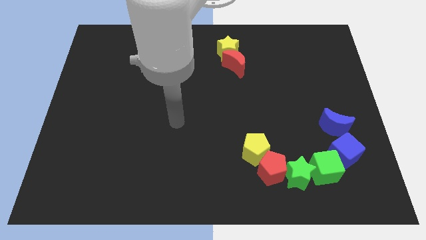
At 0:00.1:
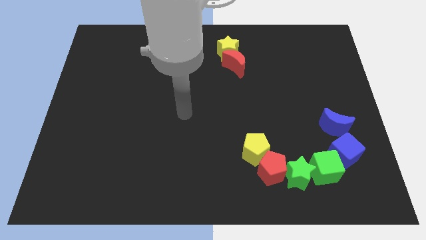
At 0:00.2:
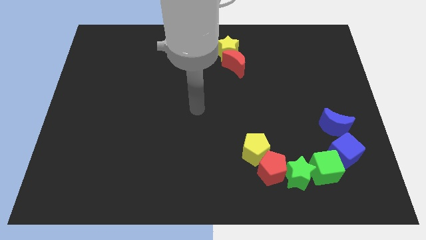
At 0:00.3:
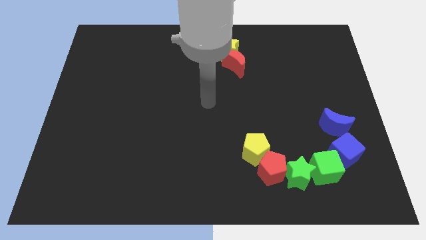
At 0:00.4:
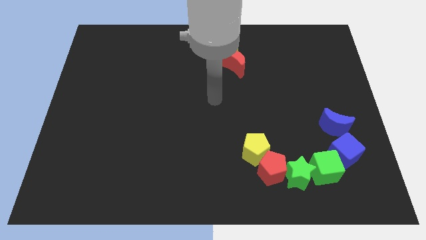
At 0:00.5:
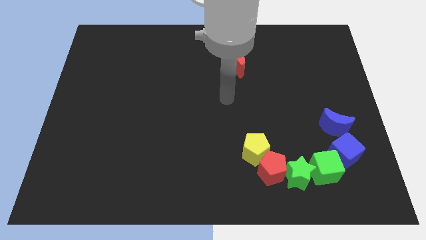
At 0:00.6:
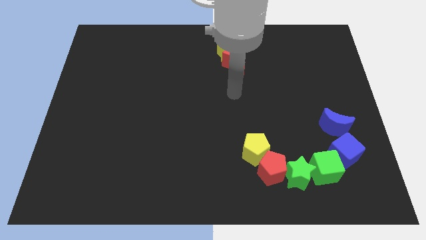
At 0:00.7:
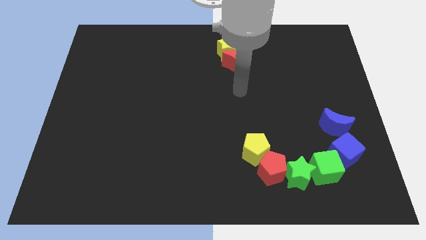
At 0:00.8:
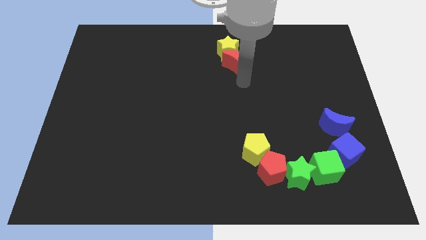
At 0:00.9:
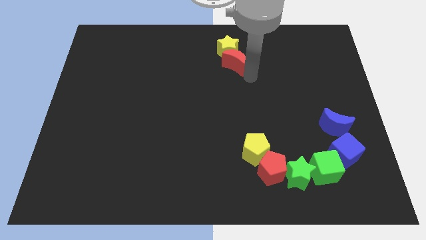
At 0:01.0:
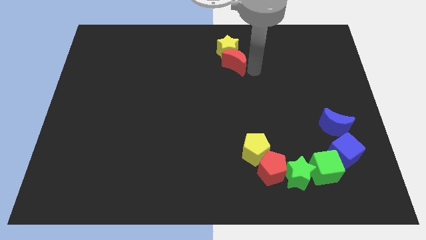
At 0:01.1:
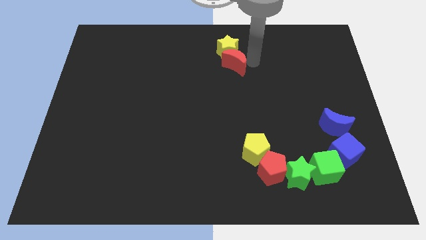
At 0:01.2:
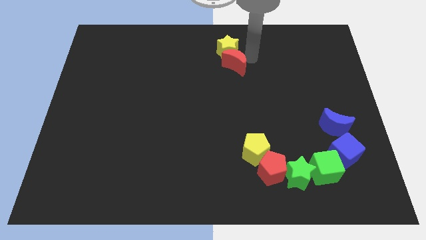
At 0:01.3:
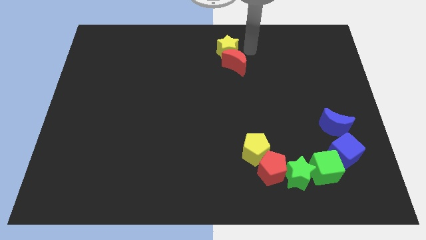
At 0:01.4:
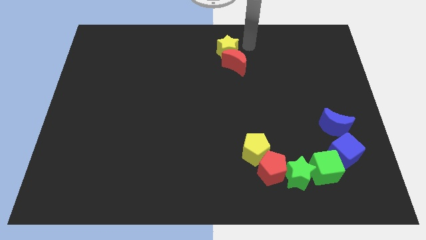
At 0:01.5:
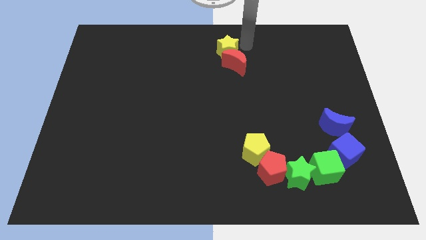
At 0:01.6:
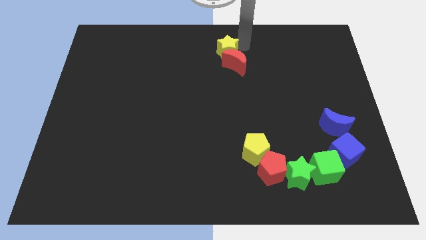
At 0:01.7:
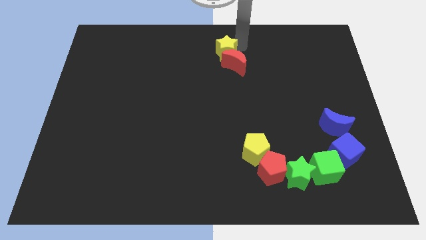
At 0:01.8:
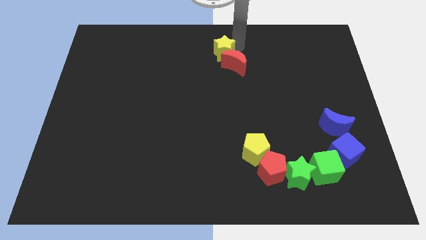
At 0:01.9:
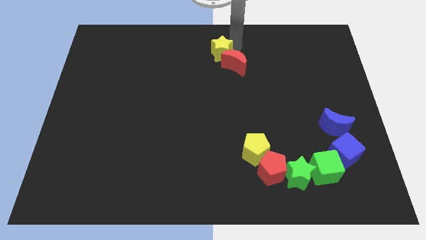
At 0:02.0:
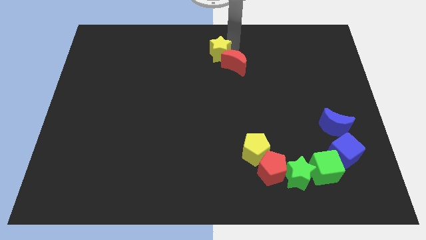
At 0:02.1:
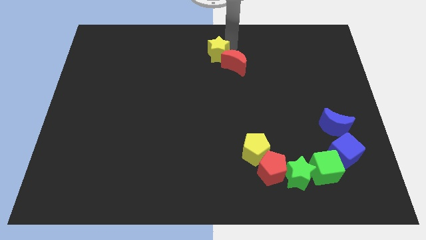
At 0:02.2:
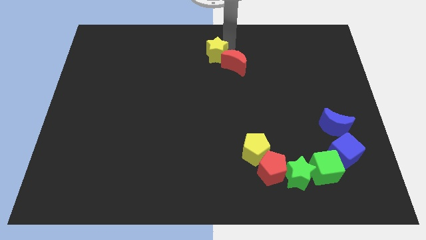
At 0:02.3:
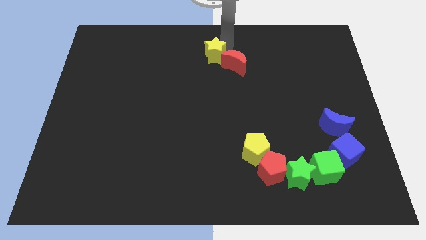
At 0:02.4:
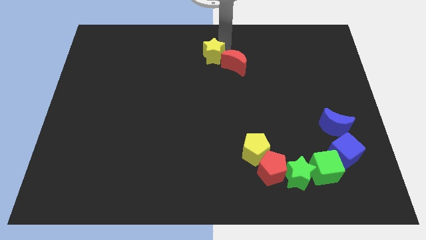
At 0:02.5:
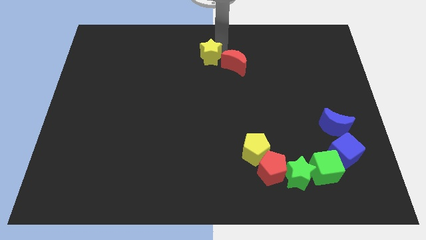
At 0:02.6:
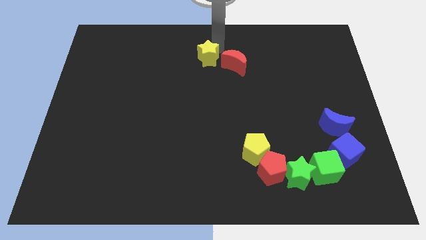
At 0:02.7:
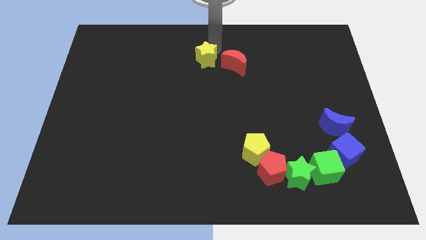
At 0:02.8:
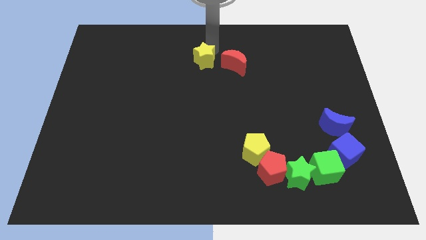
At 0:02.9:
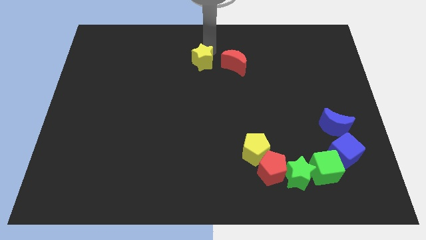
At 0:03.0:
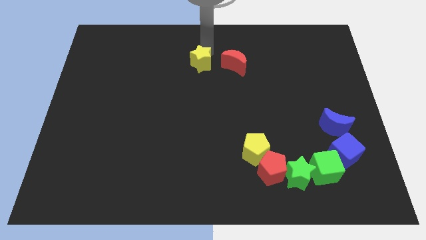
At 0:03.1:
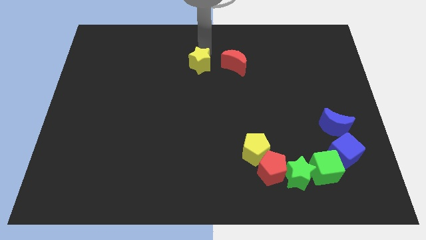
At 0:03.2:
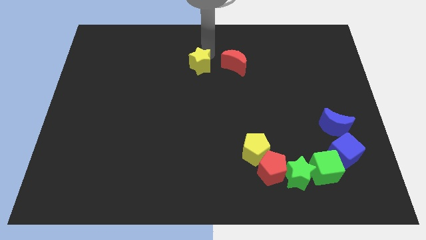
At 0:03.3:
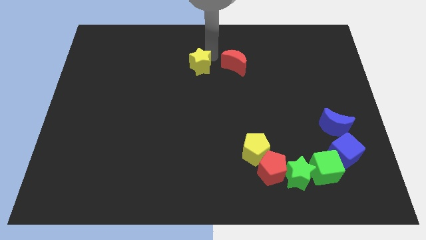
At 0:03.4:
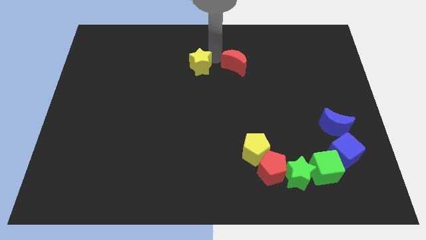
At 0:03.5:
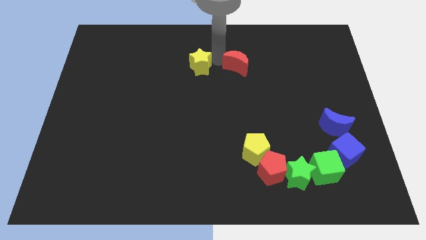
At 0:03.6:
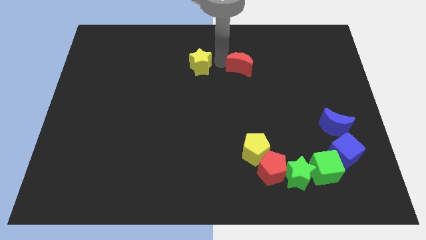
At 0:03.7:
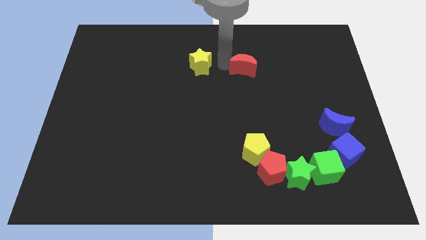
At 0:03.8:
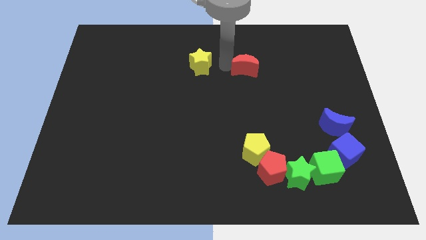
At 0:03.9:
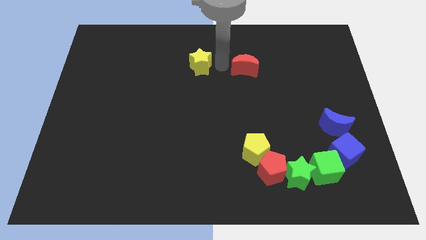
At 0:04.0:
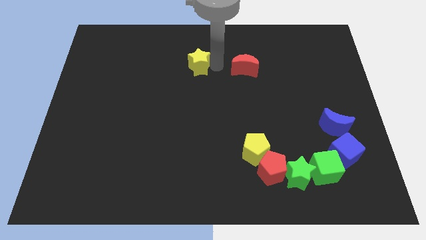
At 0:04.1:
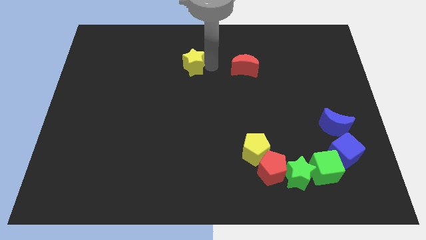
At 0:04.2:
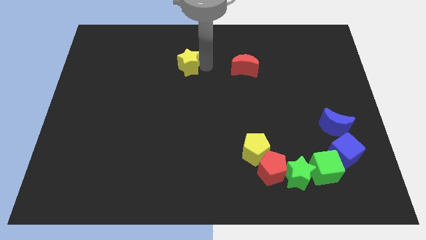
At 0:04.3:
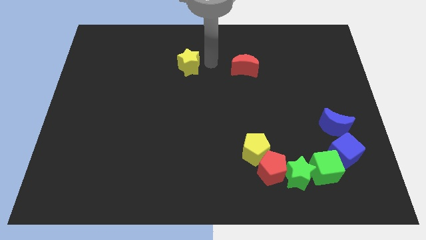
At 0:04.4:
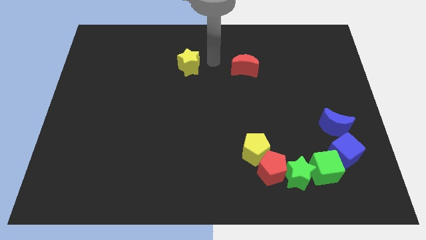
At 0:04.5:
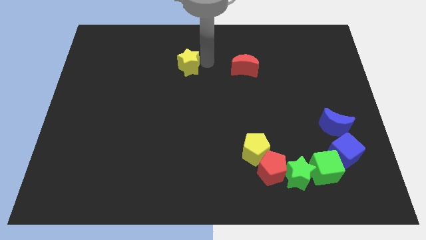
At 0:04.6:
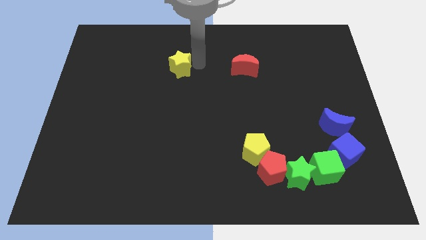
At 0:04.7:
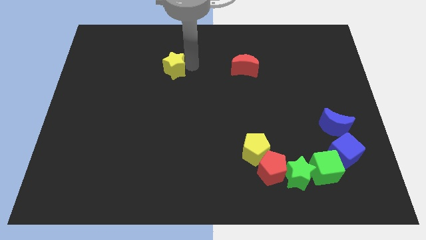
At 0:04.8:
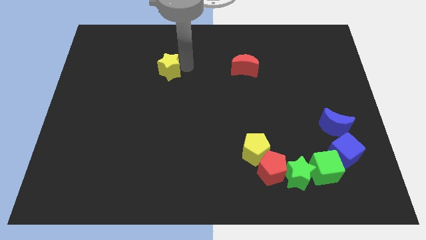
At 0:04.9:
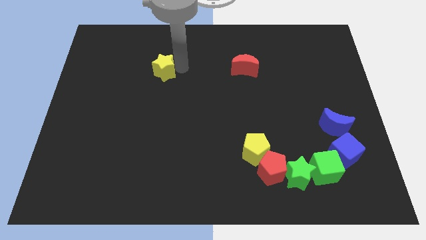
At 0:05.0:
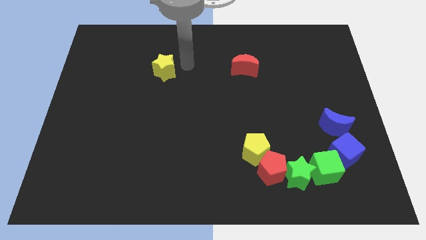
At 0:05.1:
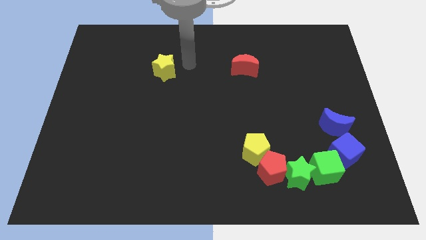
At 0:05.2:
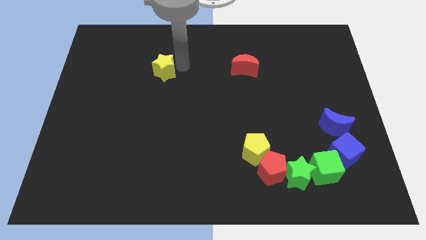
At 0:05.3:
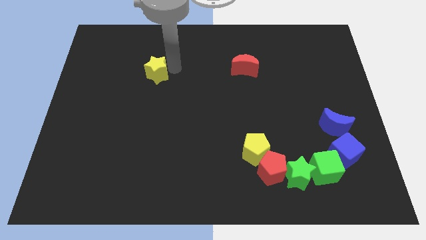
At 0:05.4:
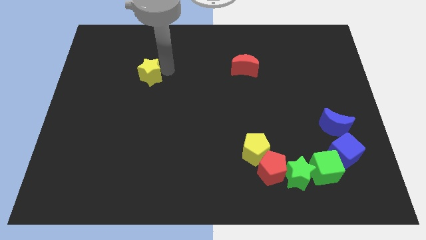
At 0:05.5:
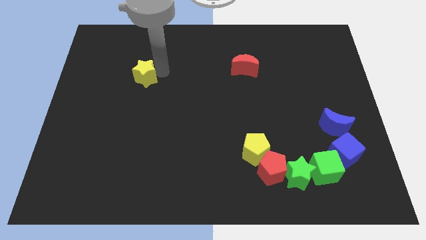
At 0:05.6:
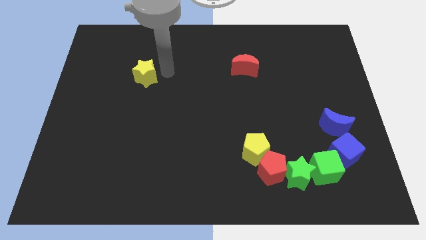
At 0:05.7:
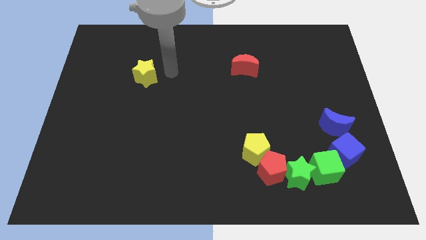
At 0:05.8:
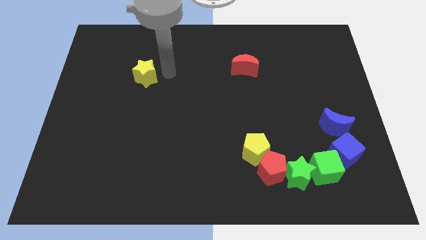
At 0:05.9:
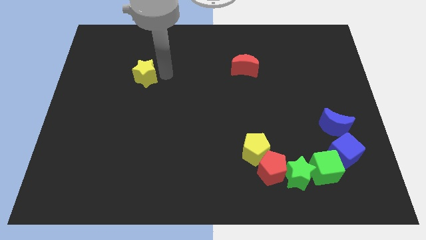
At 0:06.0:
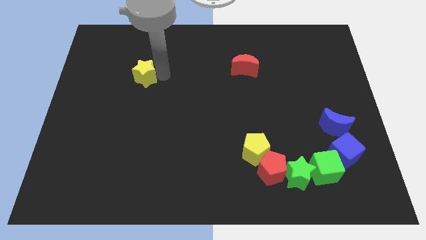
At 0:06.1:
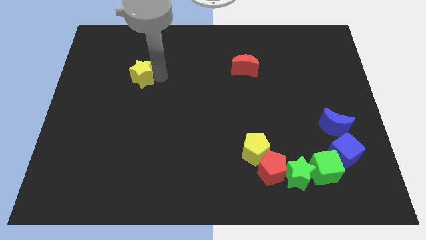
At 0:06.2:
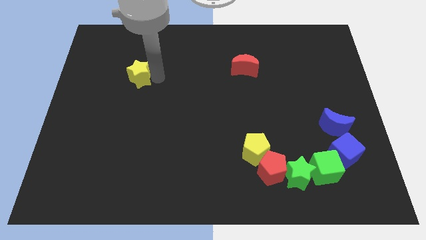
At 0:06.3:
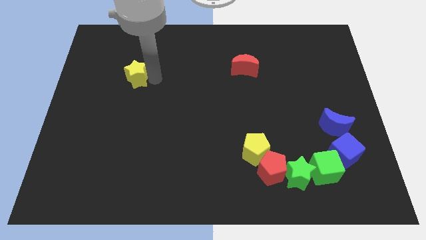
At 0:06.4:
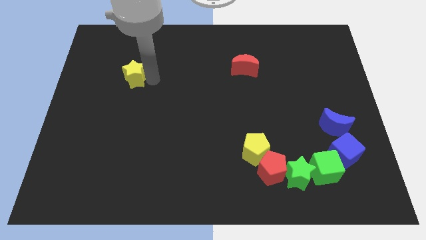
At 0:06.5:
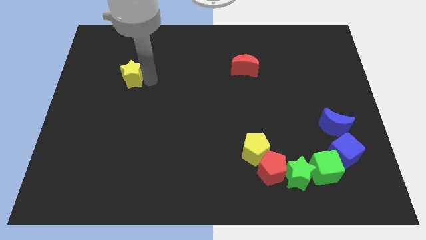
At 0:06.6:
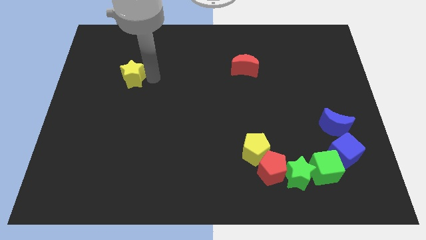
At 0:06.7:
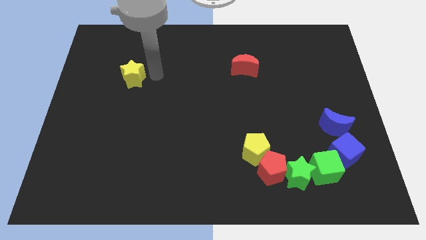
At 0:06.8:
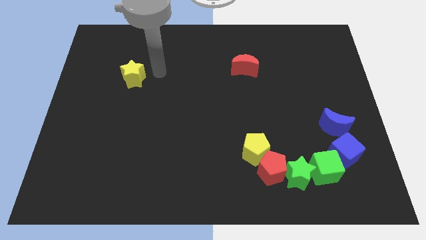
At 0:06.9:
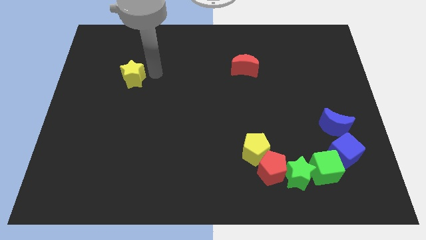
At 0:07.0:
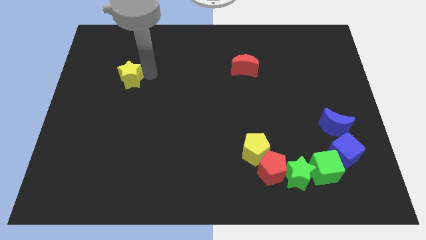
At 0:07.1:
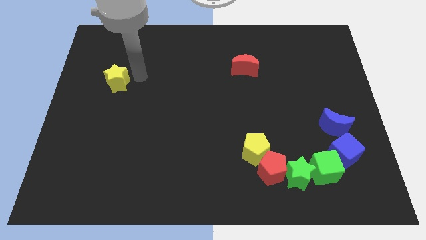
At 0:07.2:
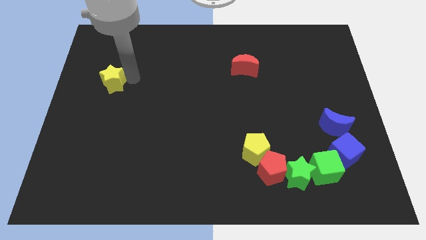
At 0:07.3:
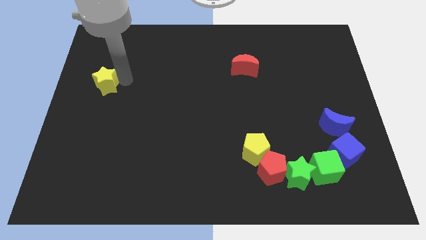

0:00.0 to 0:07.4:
slide the yellow star to the center left

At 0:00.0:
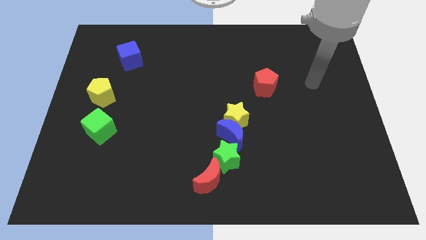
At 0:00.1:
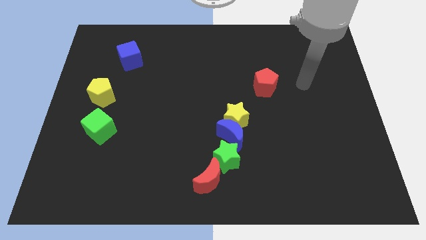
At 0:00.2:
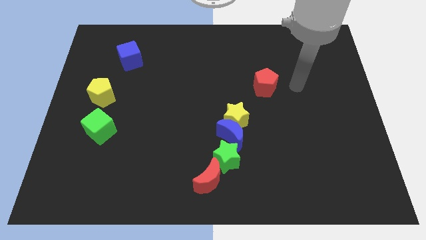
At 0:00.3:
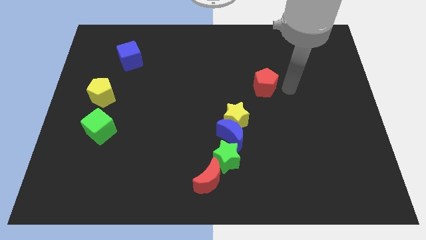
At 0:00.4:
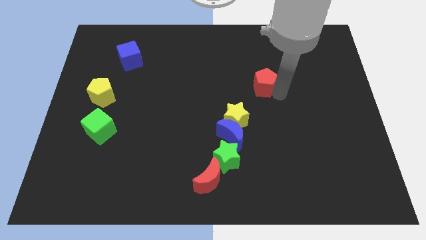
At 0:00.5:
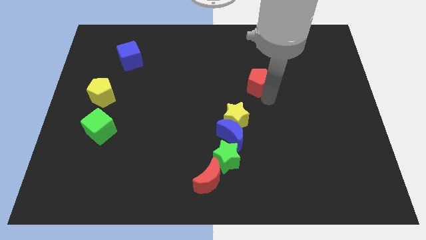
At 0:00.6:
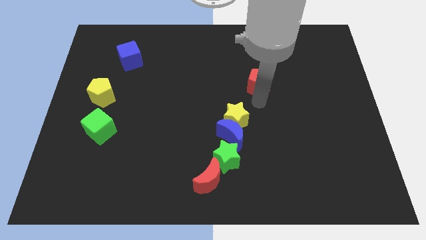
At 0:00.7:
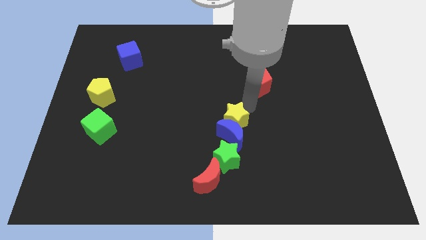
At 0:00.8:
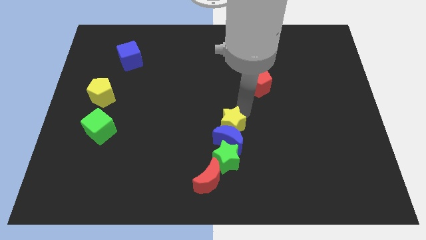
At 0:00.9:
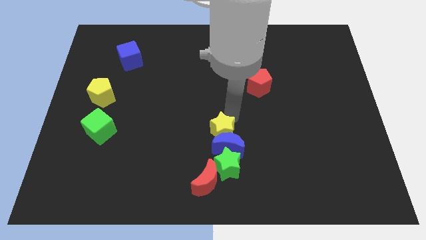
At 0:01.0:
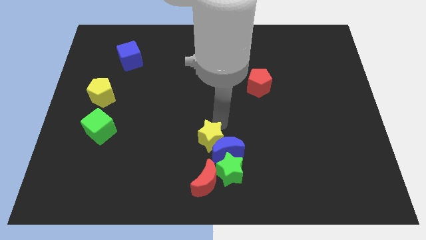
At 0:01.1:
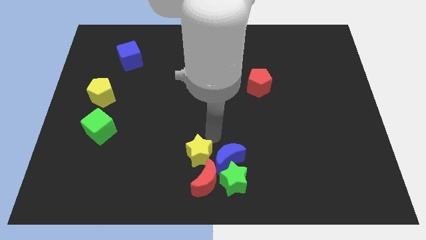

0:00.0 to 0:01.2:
move the blue moon to the bottom side
